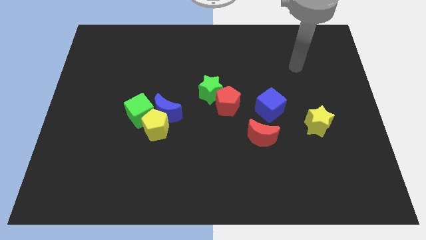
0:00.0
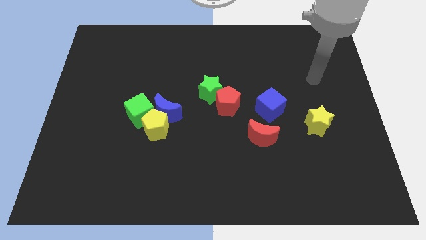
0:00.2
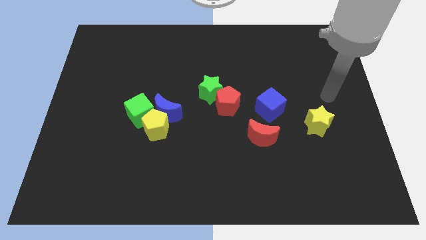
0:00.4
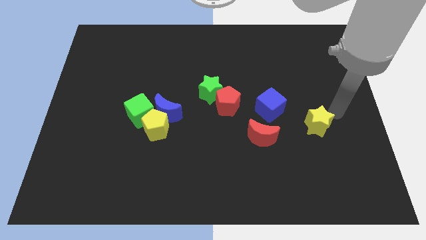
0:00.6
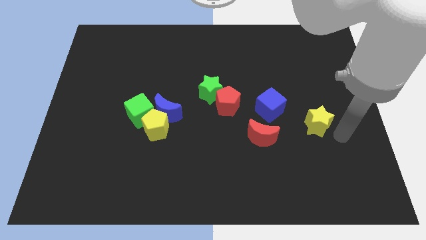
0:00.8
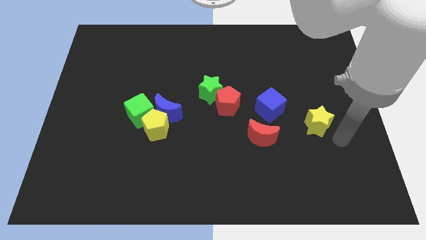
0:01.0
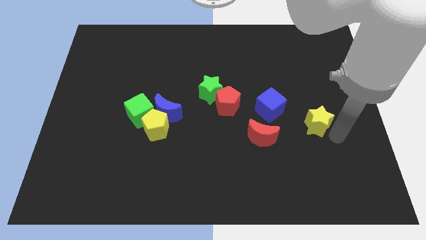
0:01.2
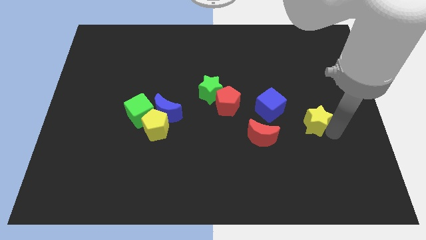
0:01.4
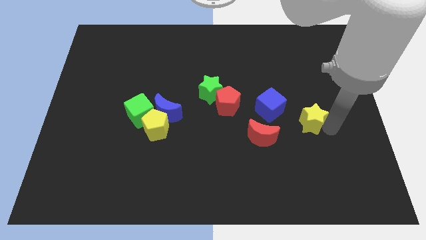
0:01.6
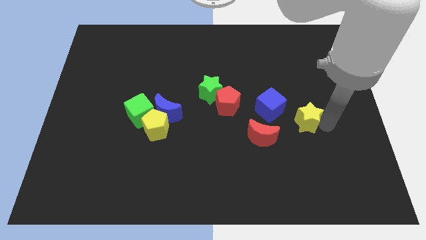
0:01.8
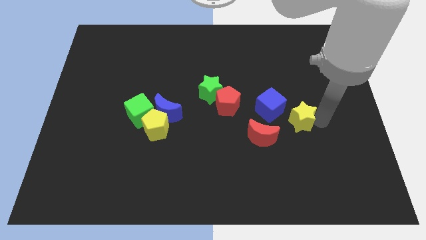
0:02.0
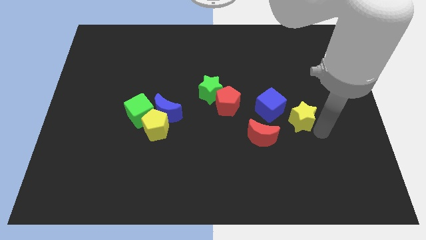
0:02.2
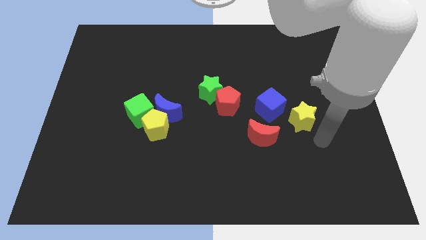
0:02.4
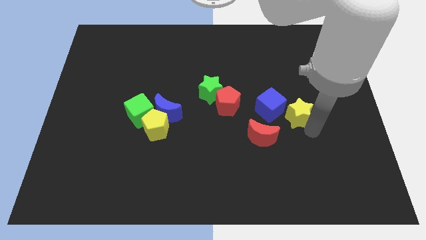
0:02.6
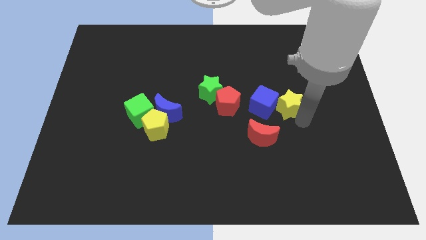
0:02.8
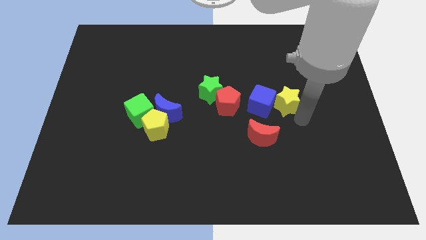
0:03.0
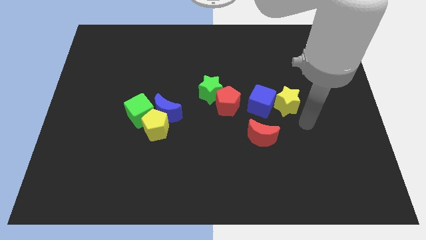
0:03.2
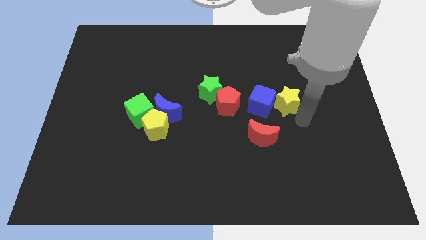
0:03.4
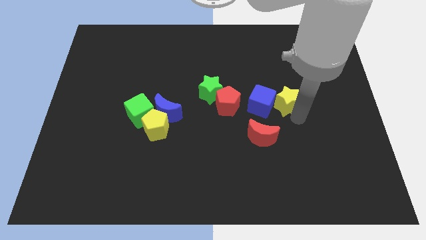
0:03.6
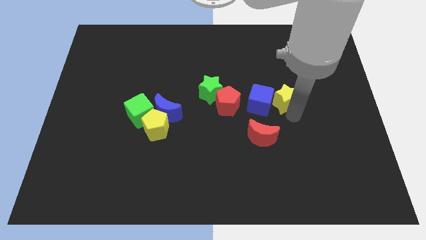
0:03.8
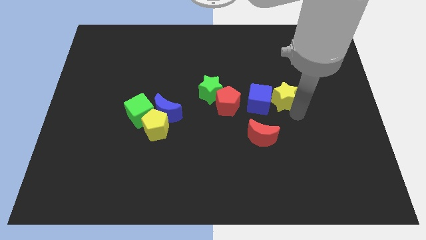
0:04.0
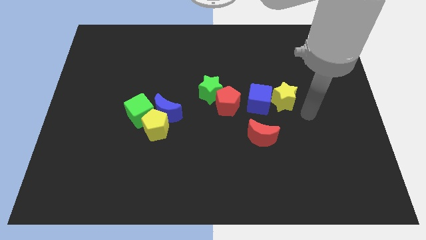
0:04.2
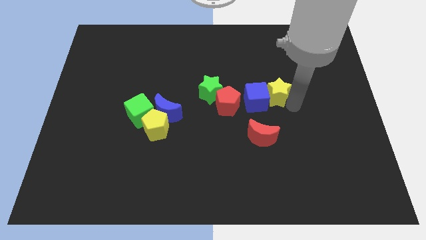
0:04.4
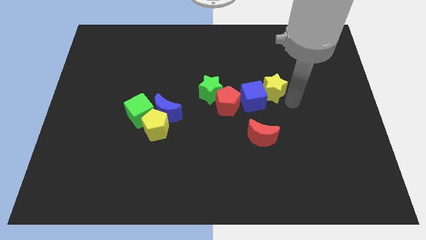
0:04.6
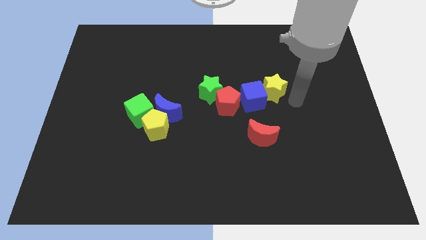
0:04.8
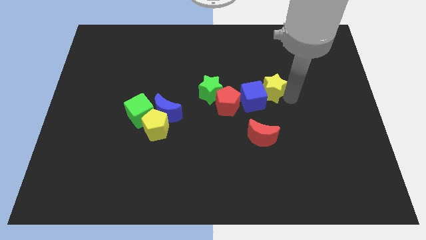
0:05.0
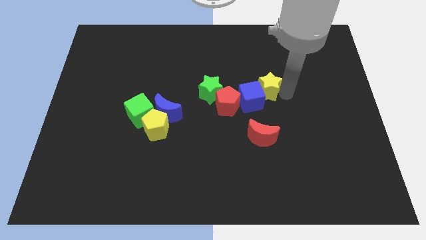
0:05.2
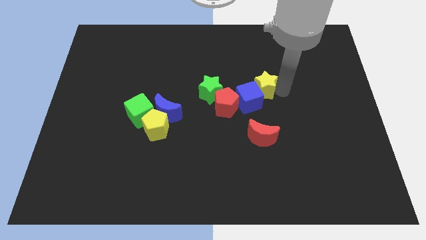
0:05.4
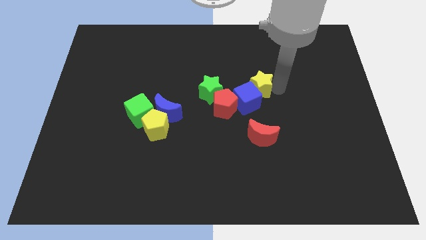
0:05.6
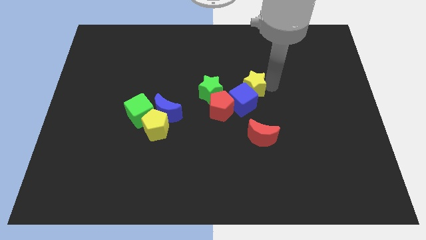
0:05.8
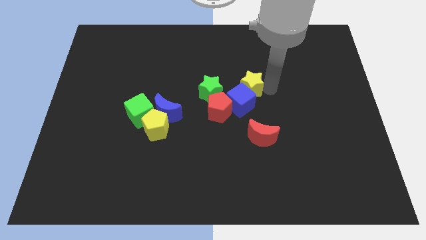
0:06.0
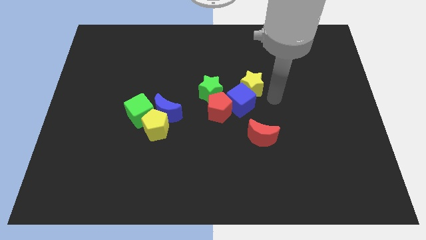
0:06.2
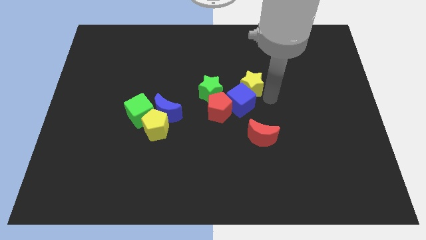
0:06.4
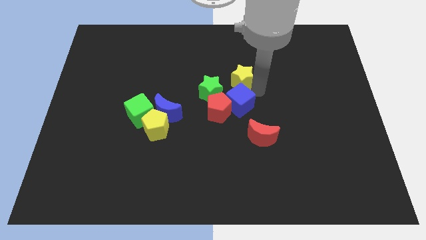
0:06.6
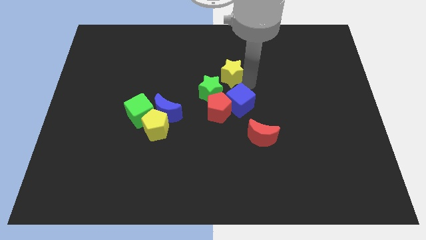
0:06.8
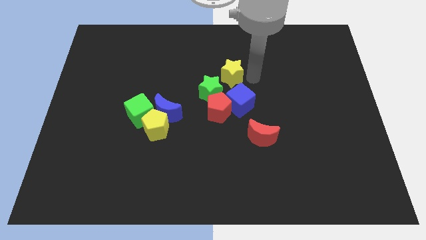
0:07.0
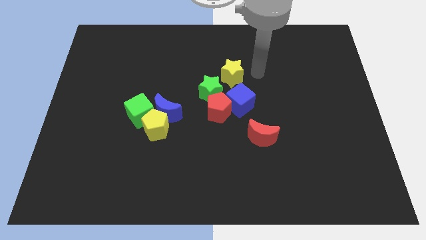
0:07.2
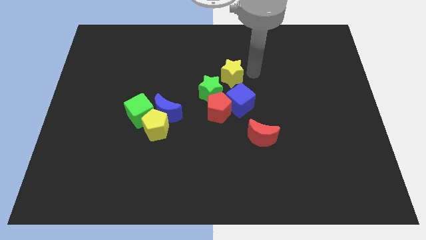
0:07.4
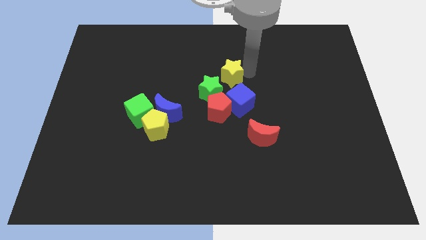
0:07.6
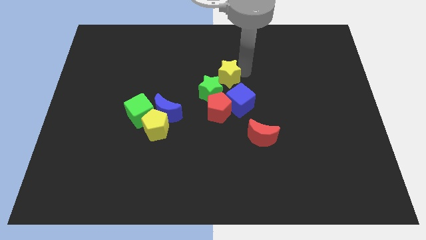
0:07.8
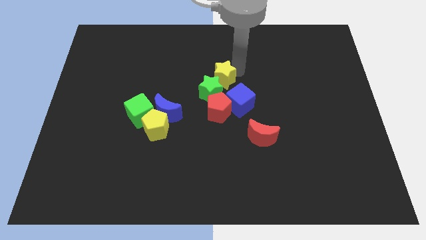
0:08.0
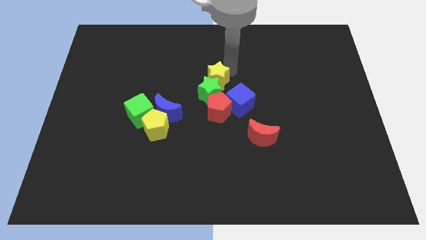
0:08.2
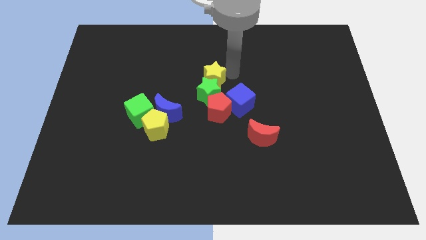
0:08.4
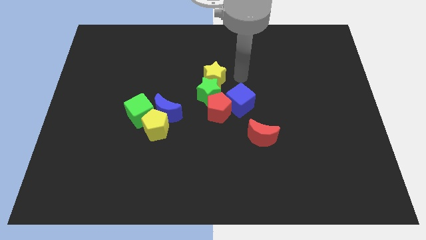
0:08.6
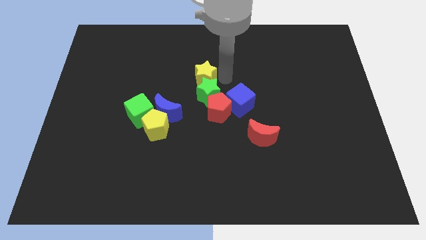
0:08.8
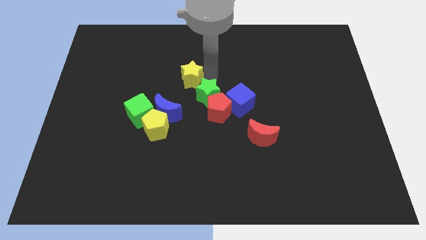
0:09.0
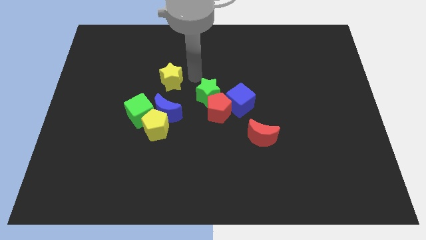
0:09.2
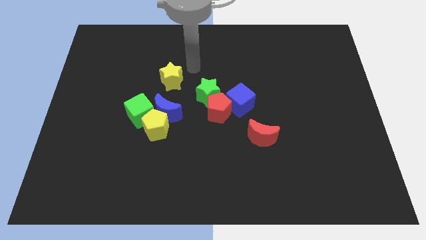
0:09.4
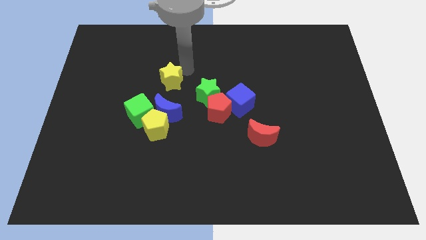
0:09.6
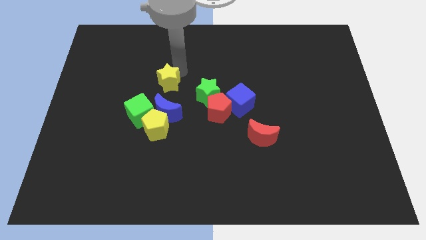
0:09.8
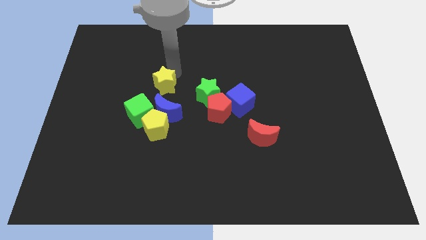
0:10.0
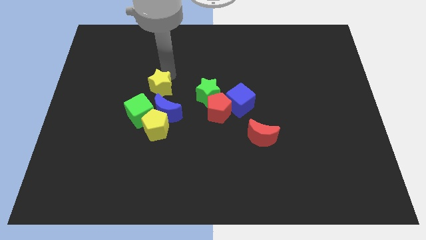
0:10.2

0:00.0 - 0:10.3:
push the yellow star to the top left side of the blue moon

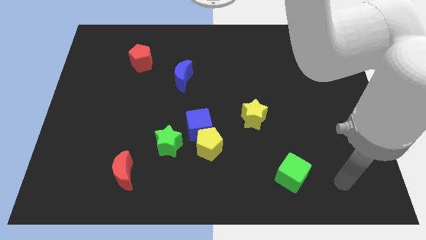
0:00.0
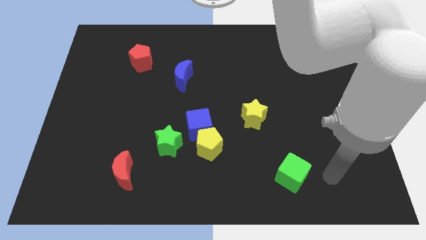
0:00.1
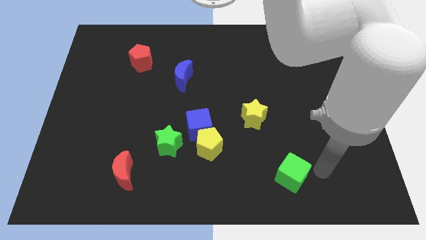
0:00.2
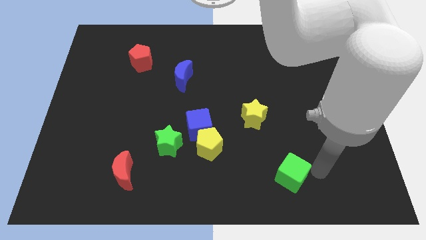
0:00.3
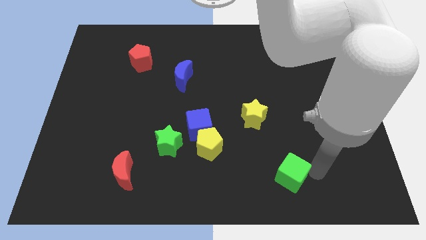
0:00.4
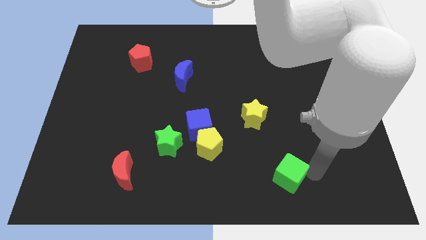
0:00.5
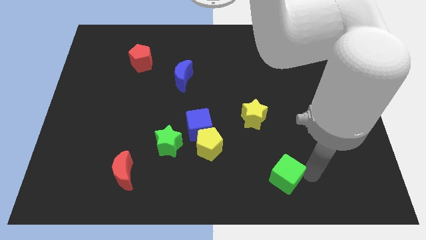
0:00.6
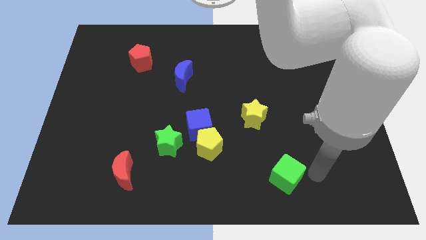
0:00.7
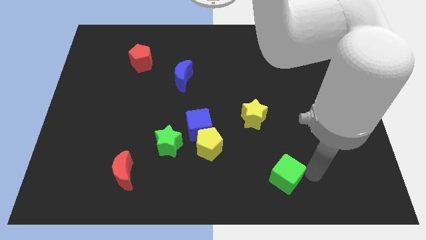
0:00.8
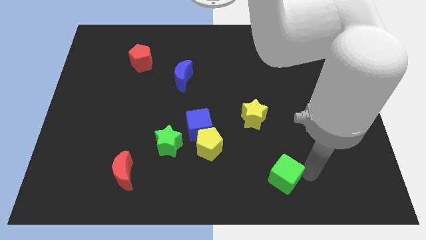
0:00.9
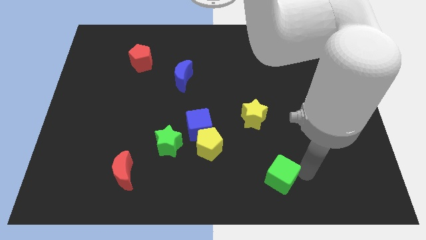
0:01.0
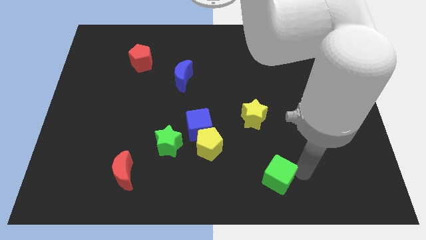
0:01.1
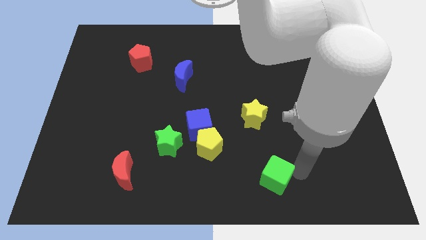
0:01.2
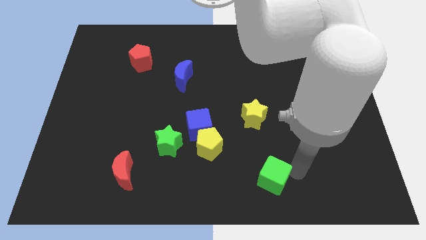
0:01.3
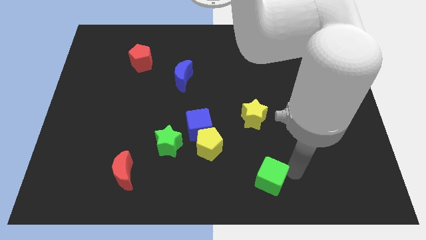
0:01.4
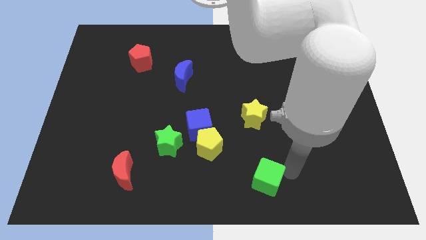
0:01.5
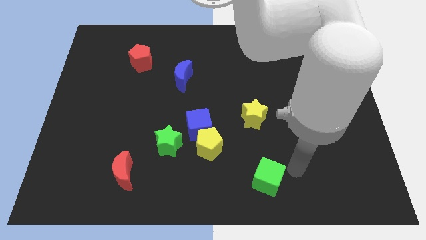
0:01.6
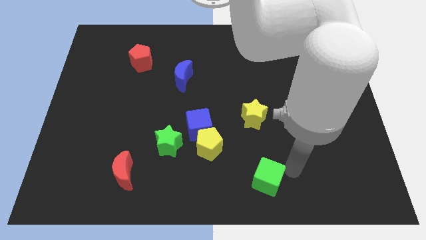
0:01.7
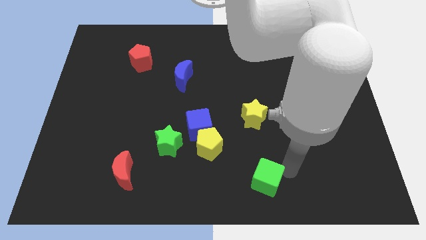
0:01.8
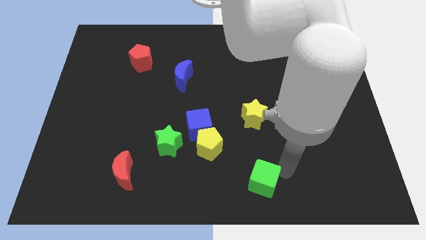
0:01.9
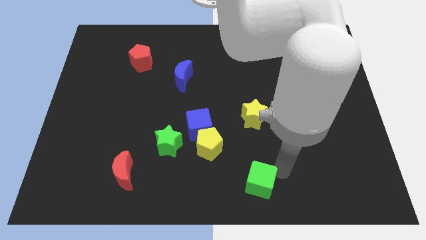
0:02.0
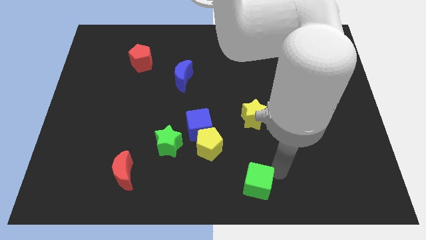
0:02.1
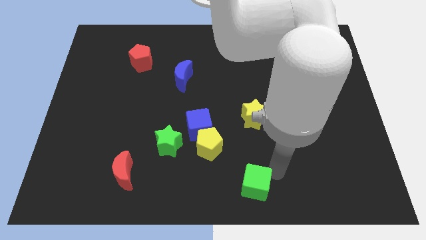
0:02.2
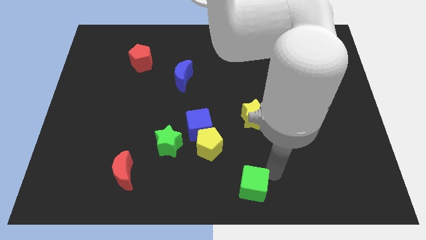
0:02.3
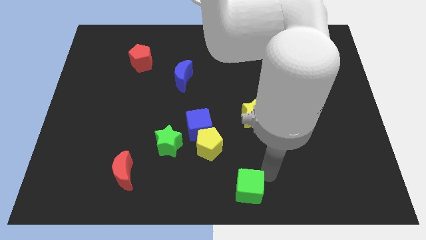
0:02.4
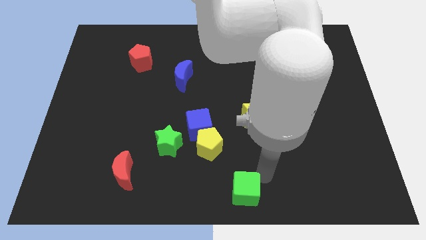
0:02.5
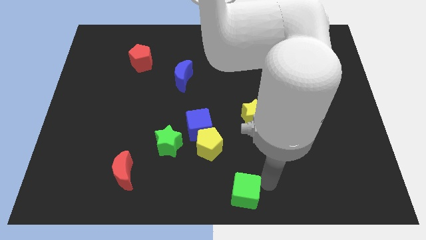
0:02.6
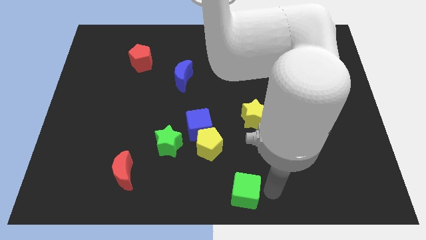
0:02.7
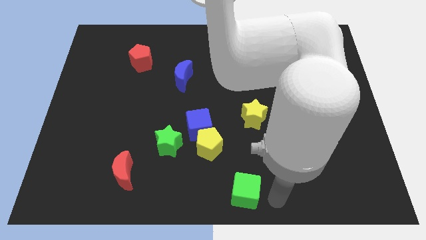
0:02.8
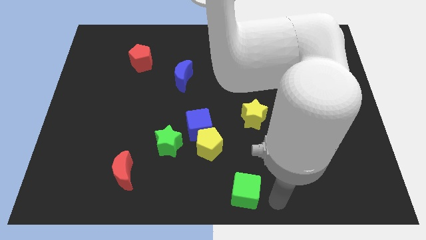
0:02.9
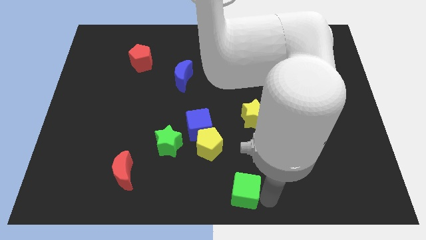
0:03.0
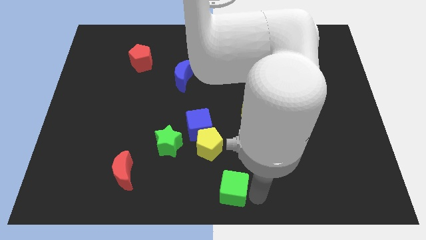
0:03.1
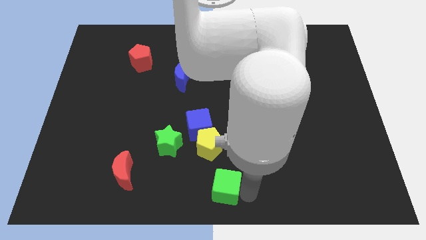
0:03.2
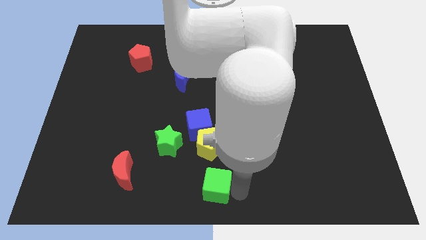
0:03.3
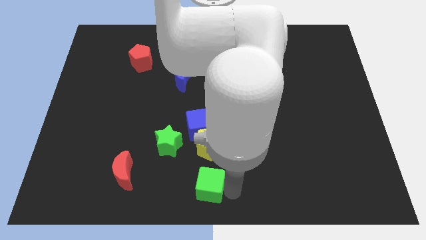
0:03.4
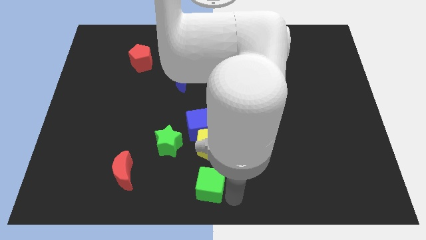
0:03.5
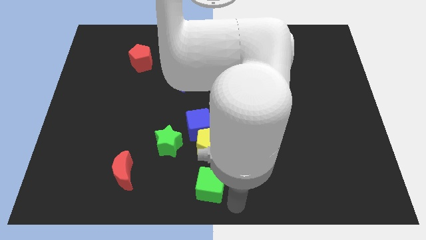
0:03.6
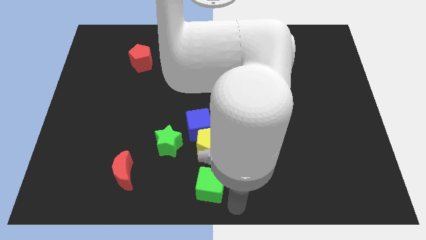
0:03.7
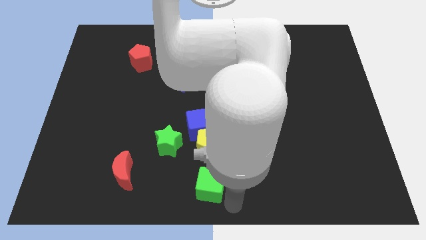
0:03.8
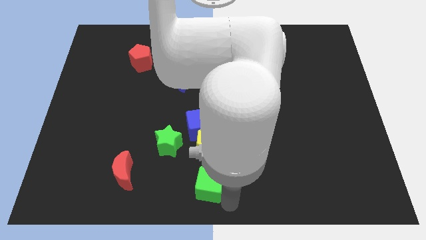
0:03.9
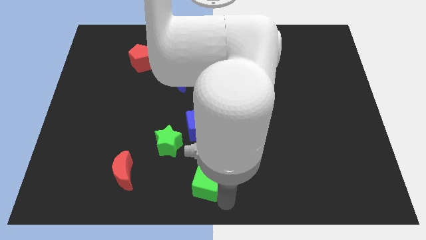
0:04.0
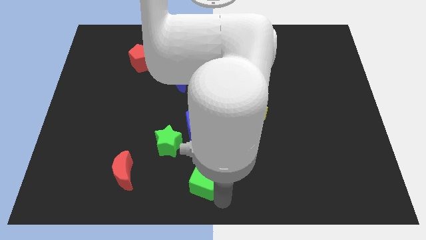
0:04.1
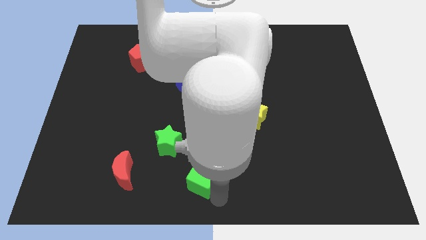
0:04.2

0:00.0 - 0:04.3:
put the green cube to the bottom left of the yellow pentagon
